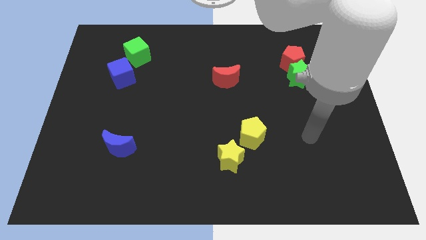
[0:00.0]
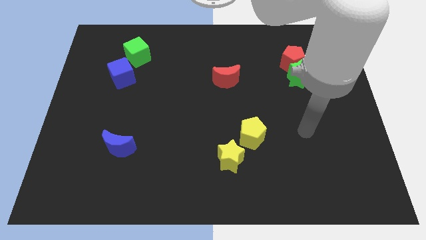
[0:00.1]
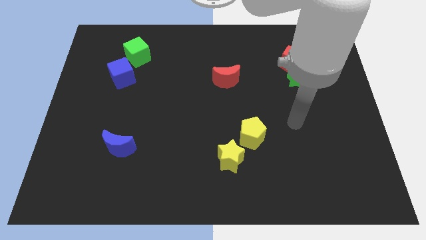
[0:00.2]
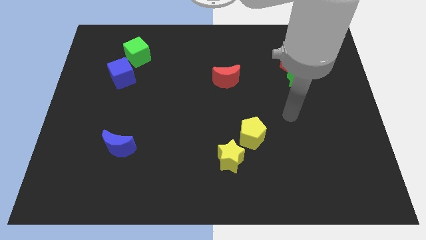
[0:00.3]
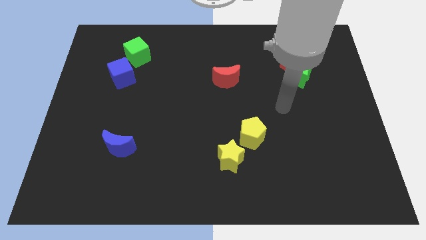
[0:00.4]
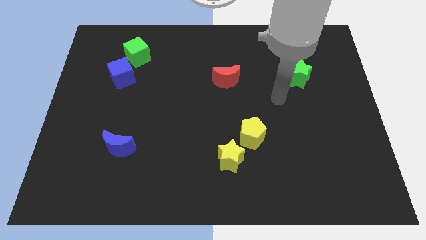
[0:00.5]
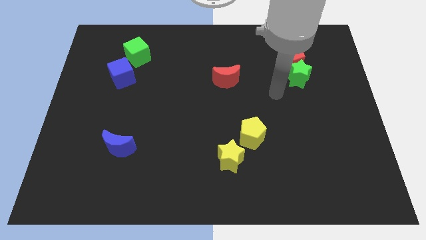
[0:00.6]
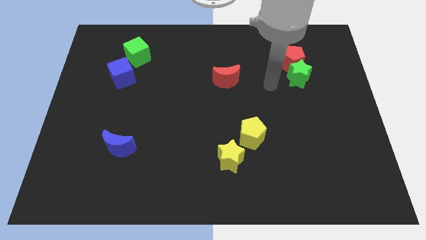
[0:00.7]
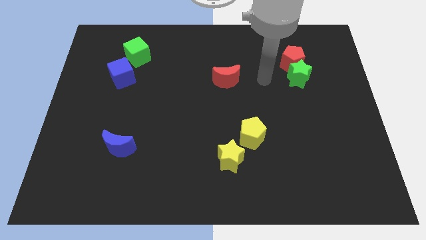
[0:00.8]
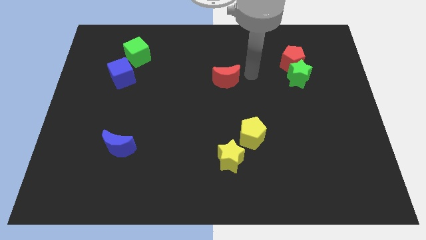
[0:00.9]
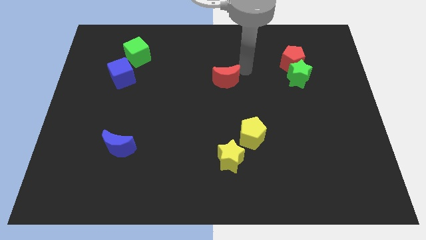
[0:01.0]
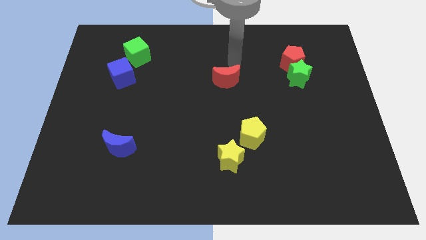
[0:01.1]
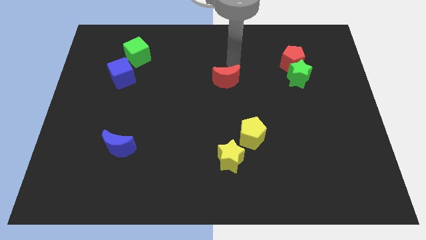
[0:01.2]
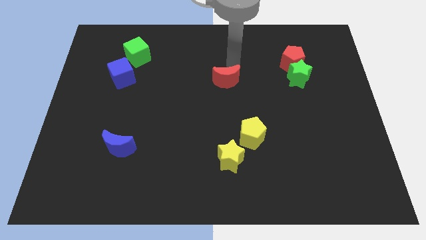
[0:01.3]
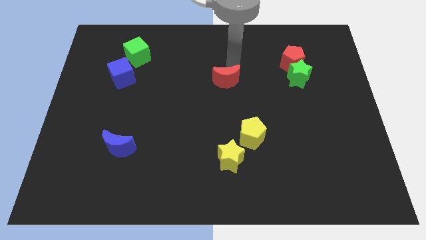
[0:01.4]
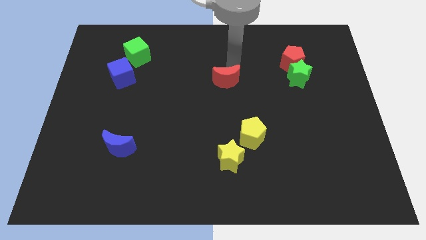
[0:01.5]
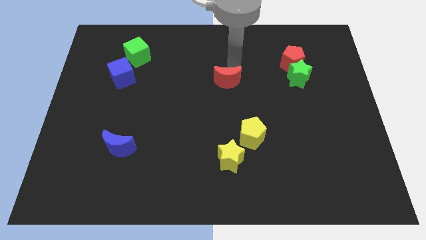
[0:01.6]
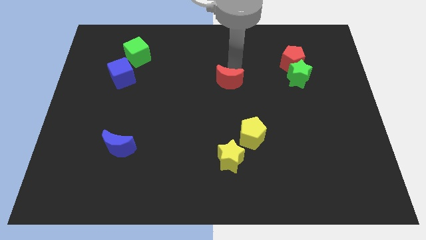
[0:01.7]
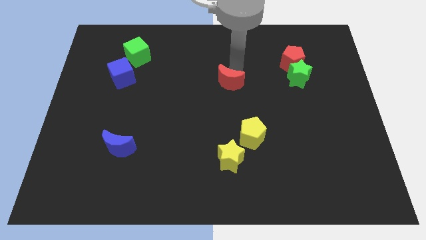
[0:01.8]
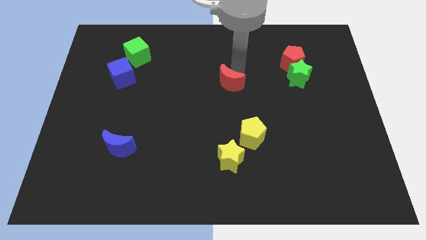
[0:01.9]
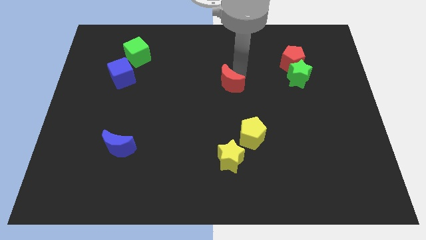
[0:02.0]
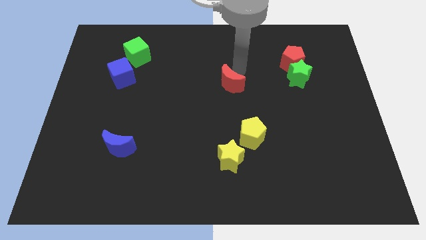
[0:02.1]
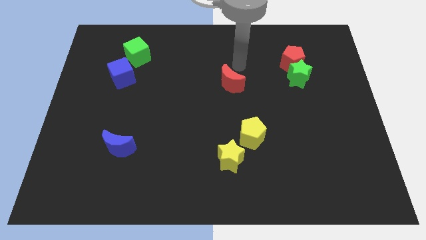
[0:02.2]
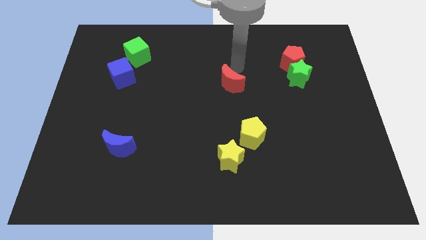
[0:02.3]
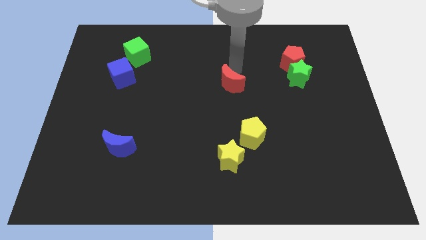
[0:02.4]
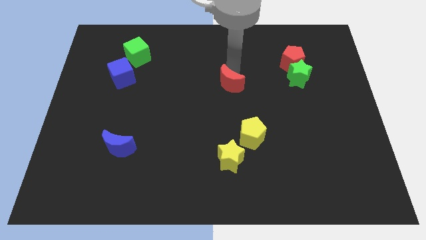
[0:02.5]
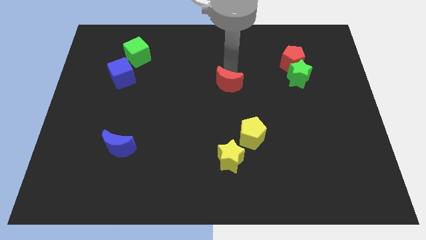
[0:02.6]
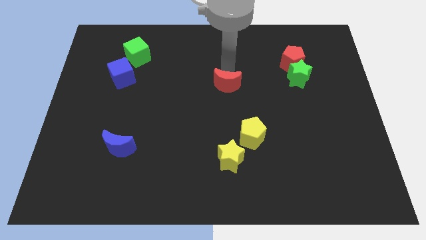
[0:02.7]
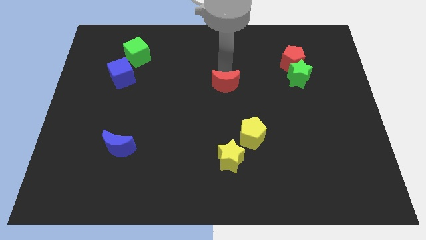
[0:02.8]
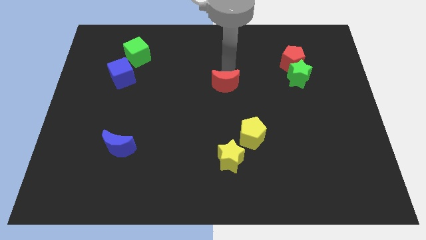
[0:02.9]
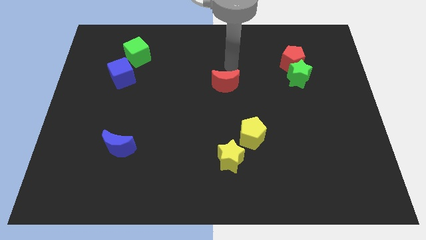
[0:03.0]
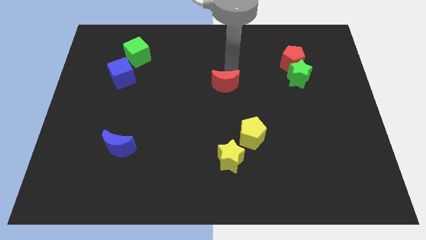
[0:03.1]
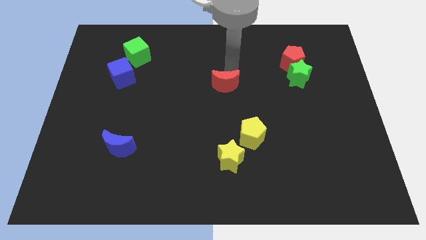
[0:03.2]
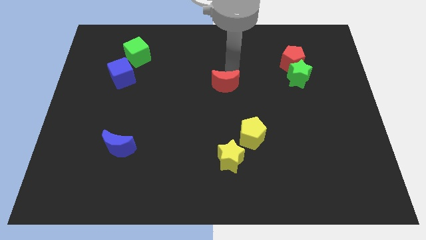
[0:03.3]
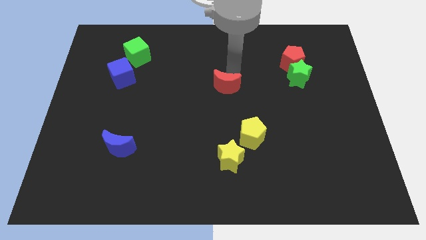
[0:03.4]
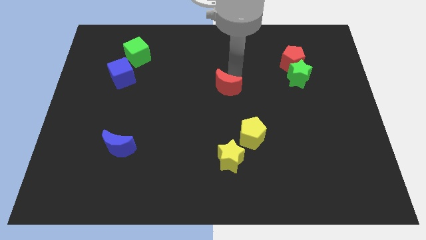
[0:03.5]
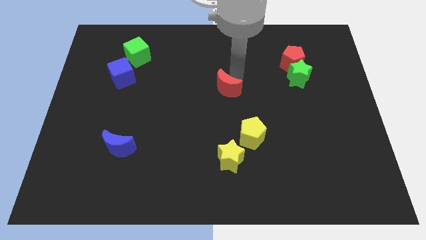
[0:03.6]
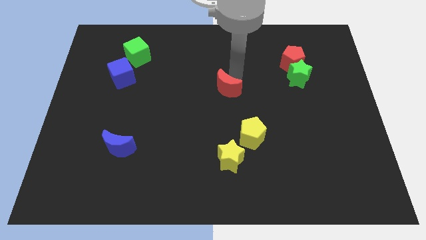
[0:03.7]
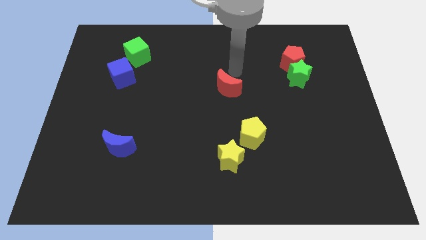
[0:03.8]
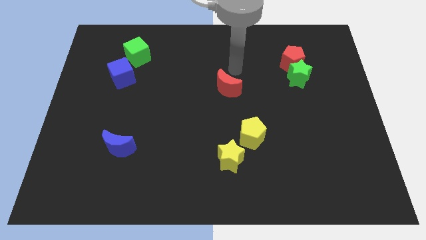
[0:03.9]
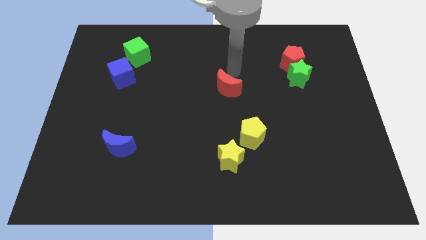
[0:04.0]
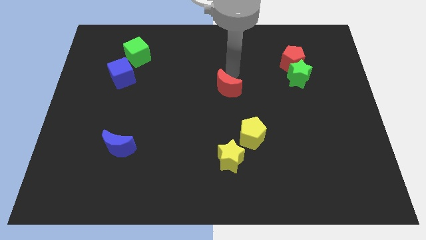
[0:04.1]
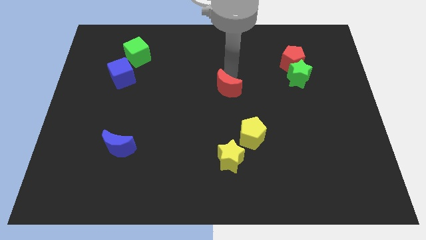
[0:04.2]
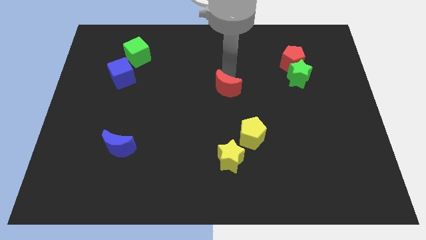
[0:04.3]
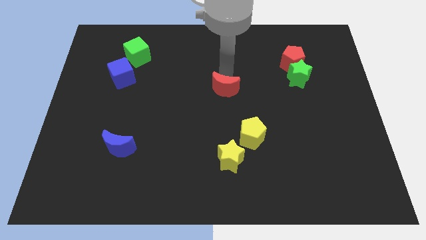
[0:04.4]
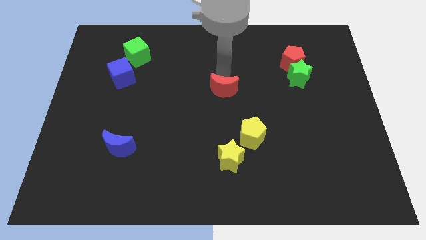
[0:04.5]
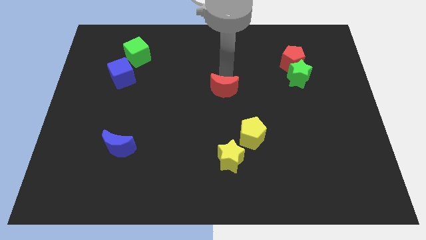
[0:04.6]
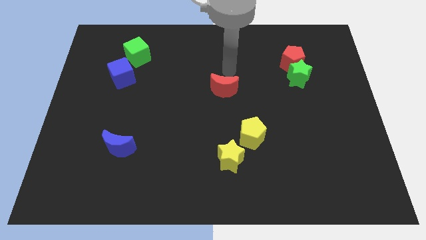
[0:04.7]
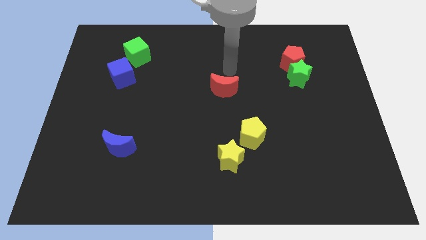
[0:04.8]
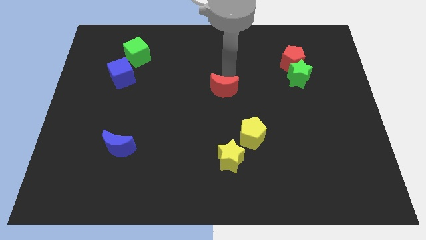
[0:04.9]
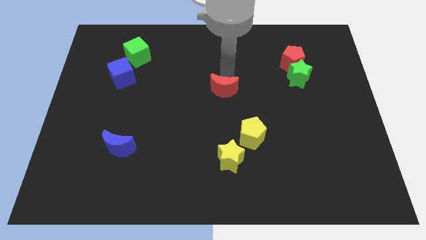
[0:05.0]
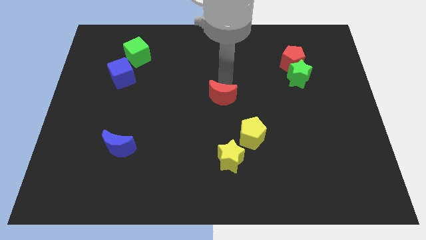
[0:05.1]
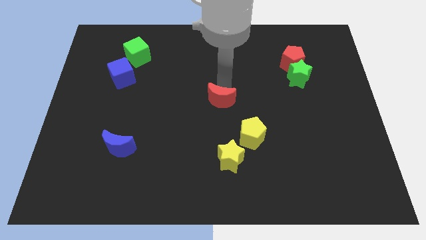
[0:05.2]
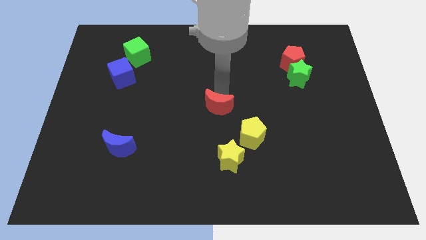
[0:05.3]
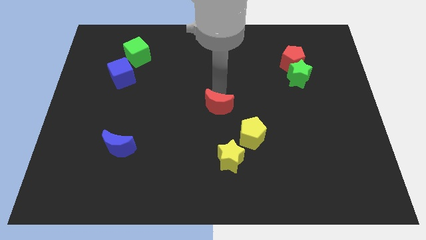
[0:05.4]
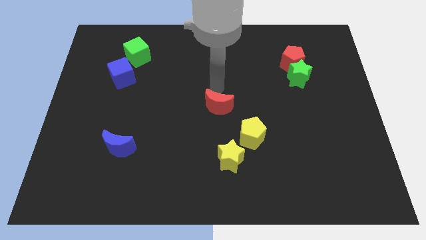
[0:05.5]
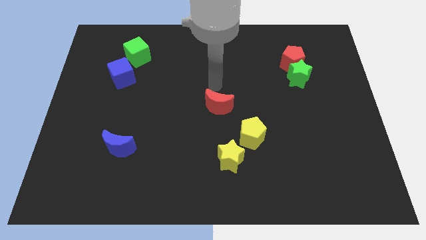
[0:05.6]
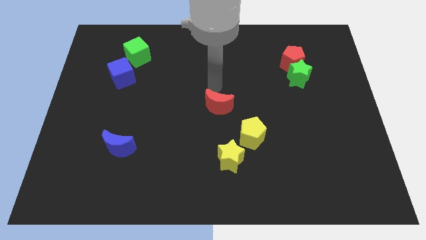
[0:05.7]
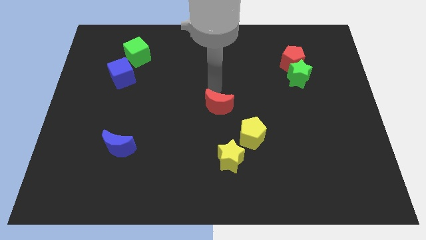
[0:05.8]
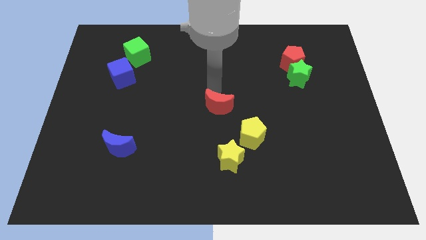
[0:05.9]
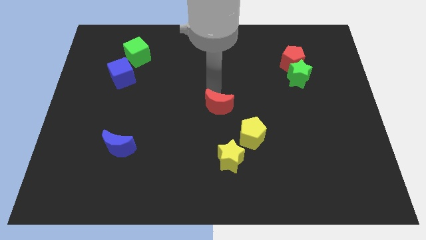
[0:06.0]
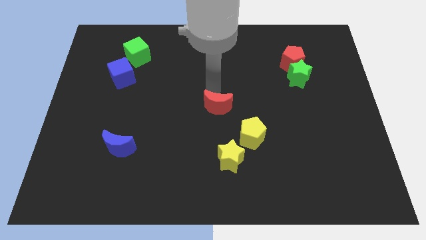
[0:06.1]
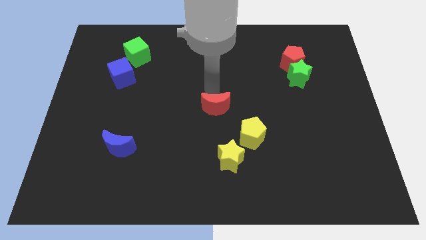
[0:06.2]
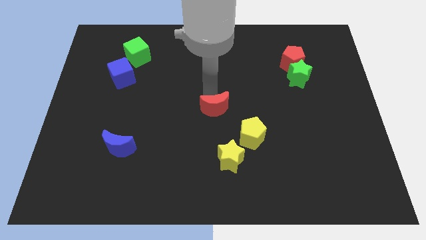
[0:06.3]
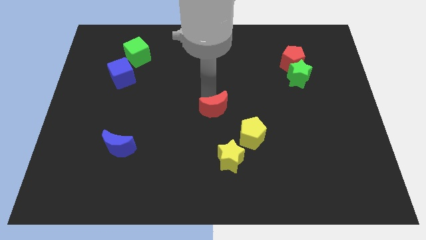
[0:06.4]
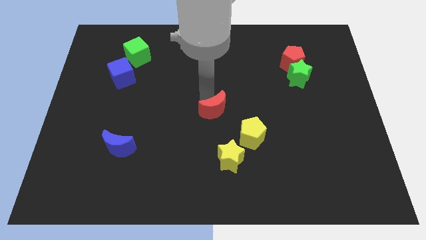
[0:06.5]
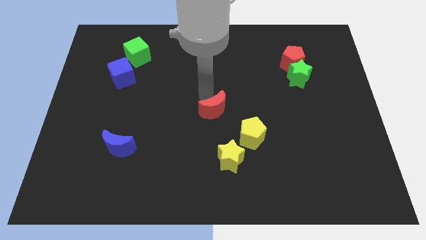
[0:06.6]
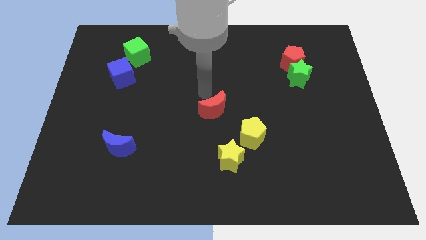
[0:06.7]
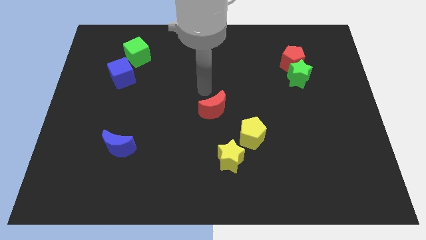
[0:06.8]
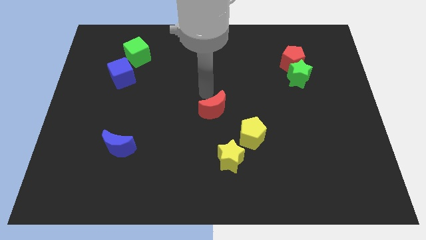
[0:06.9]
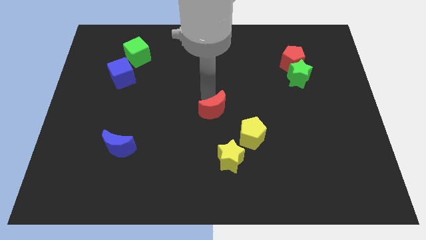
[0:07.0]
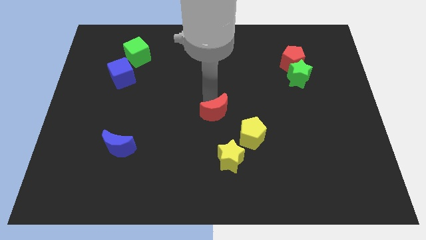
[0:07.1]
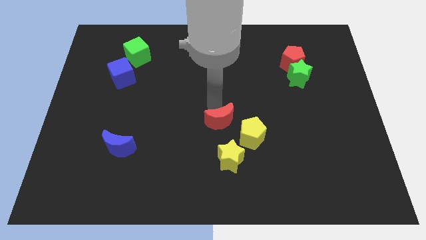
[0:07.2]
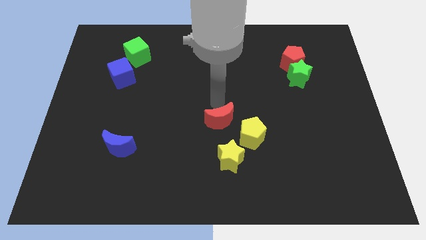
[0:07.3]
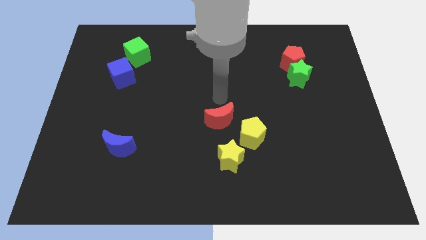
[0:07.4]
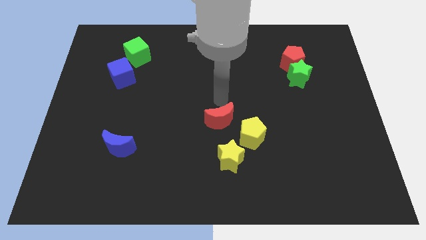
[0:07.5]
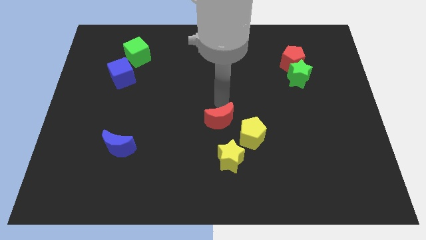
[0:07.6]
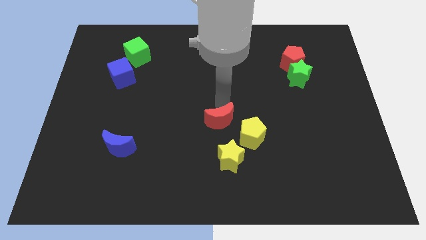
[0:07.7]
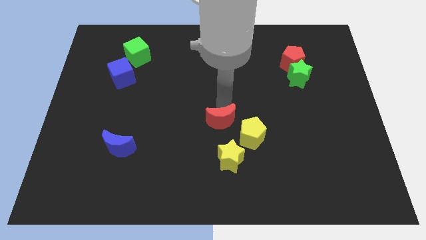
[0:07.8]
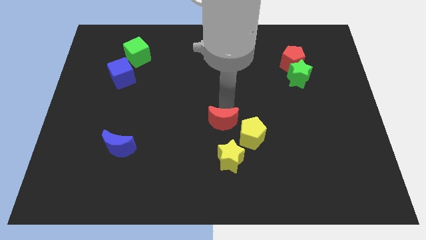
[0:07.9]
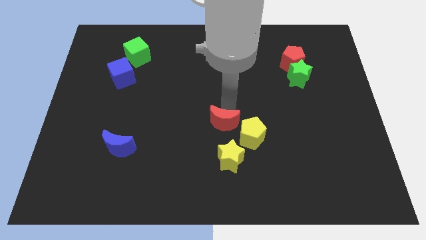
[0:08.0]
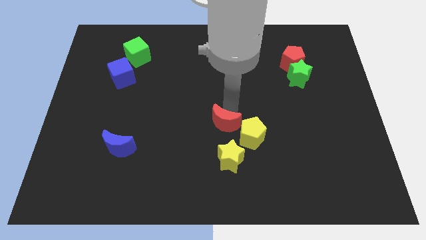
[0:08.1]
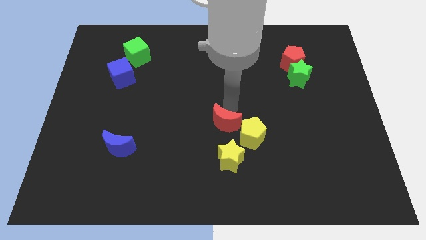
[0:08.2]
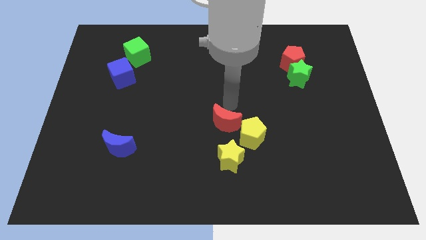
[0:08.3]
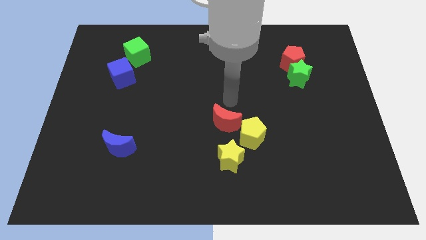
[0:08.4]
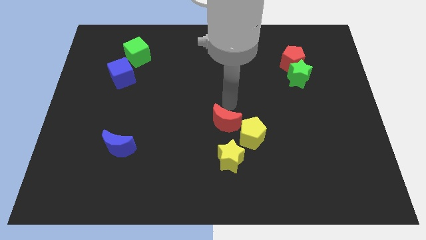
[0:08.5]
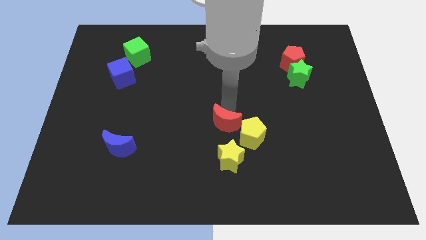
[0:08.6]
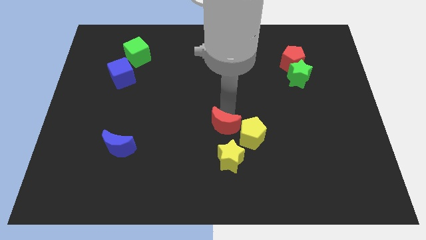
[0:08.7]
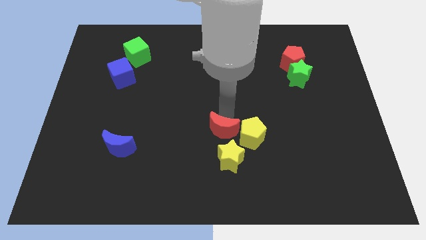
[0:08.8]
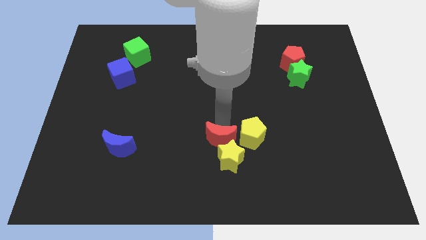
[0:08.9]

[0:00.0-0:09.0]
move the red moon to the yellow star
